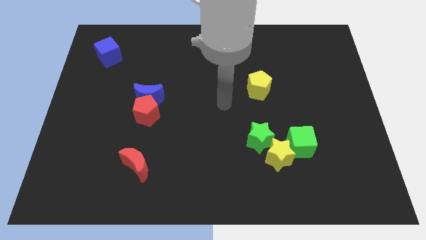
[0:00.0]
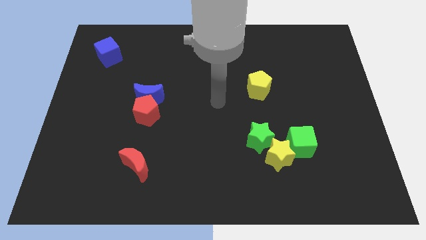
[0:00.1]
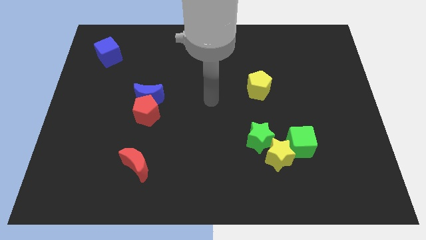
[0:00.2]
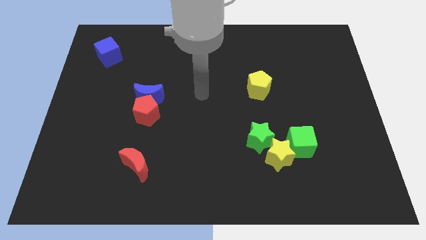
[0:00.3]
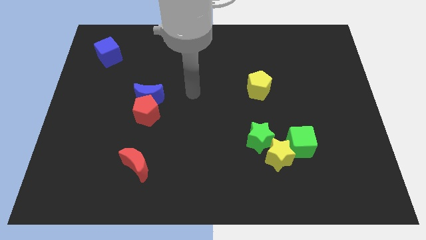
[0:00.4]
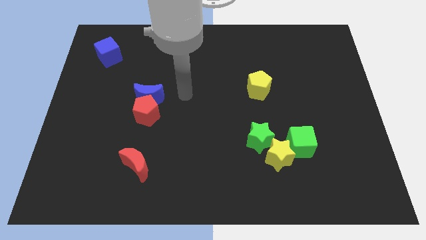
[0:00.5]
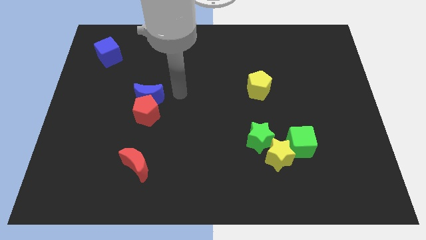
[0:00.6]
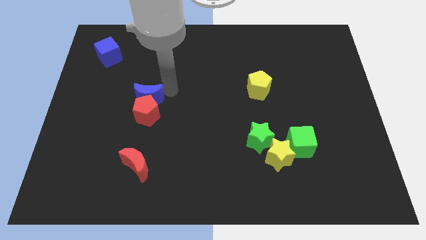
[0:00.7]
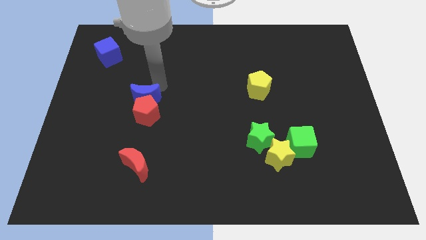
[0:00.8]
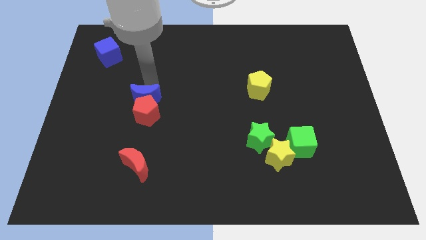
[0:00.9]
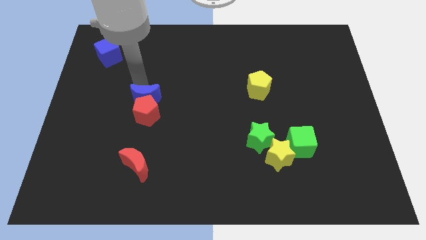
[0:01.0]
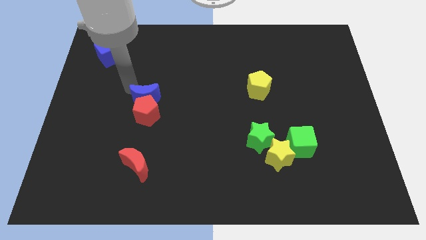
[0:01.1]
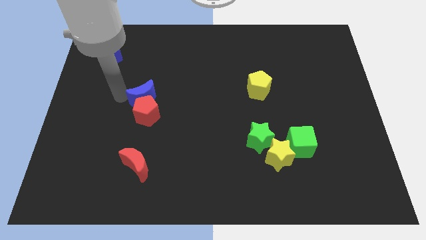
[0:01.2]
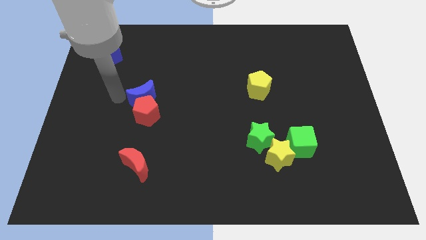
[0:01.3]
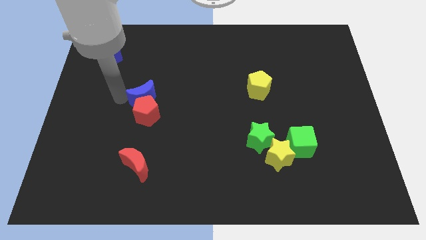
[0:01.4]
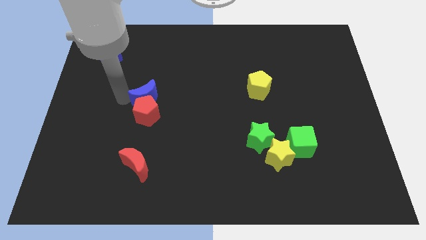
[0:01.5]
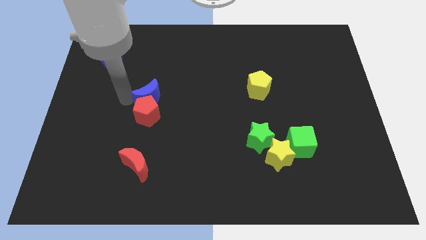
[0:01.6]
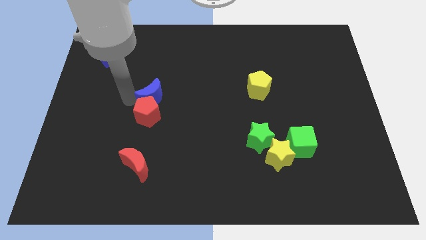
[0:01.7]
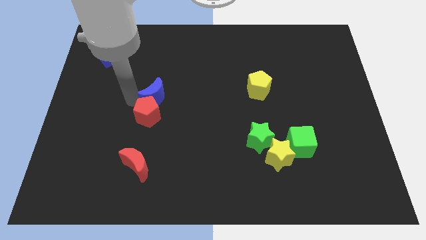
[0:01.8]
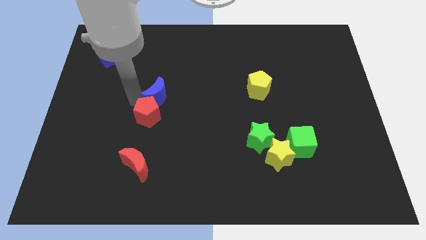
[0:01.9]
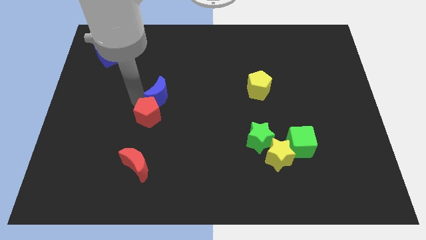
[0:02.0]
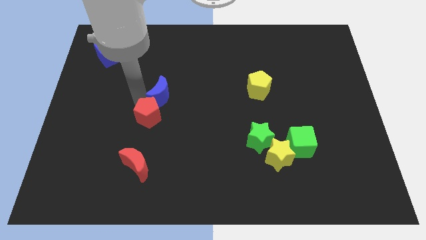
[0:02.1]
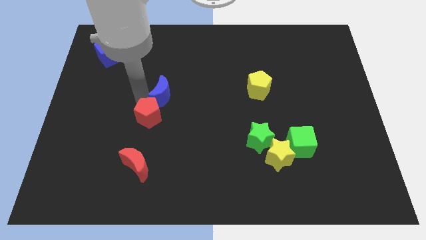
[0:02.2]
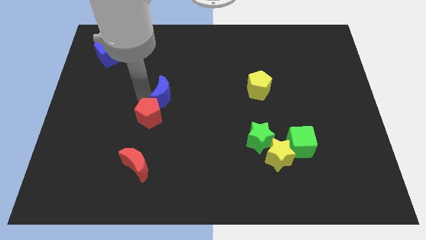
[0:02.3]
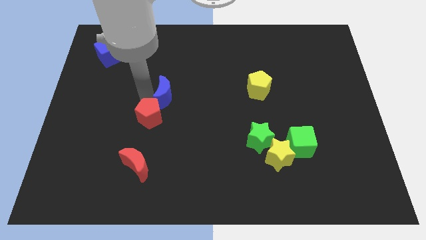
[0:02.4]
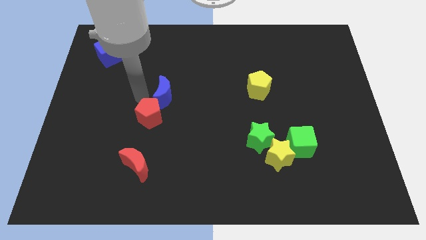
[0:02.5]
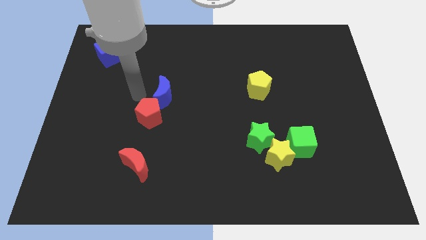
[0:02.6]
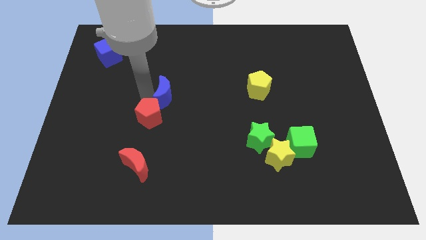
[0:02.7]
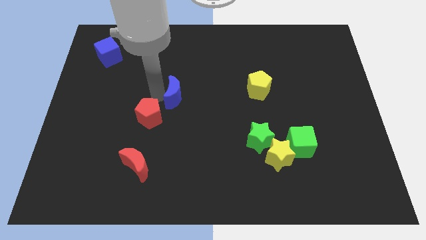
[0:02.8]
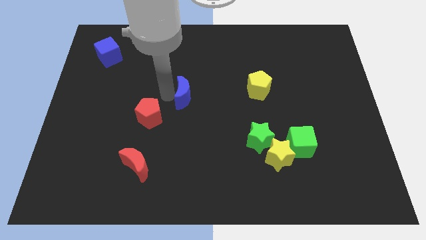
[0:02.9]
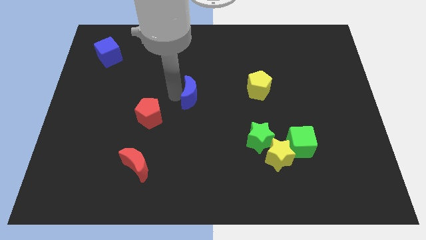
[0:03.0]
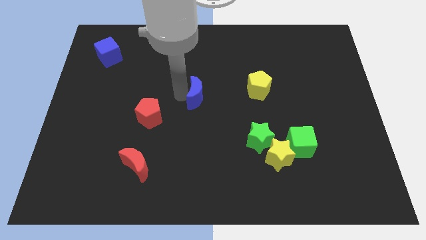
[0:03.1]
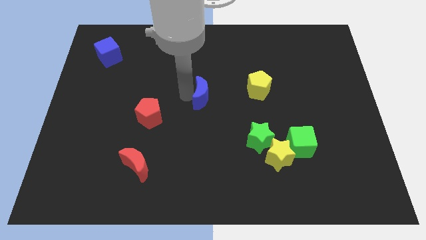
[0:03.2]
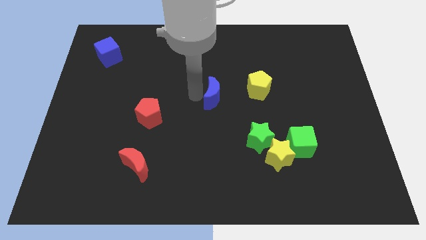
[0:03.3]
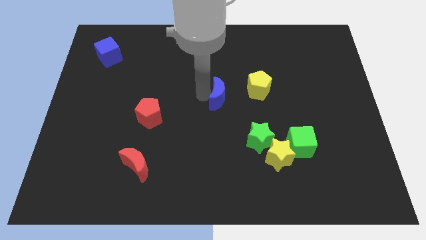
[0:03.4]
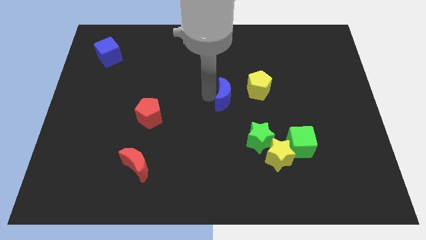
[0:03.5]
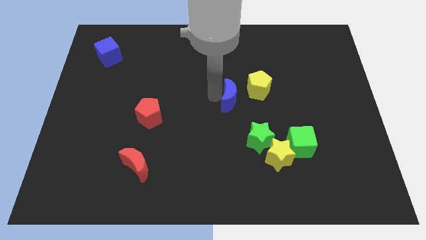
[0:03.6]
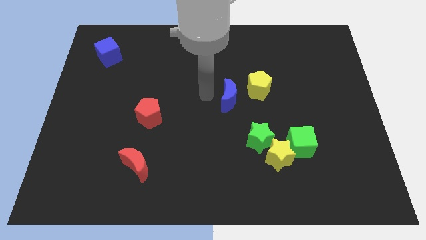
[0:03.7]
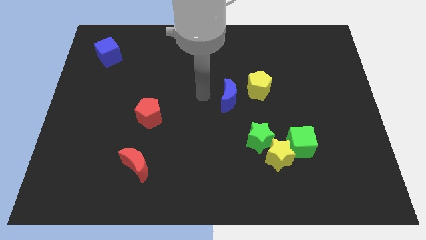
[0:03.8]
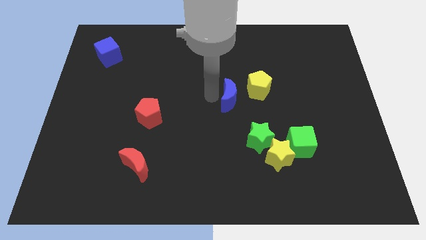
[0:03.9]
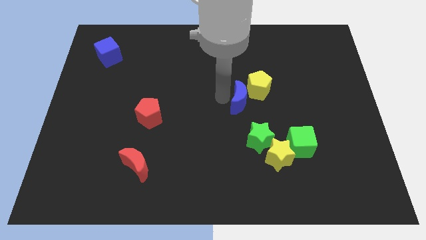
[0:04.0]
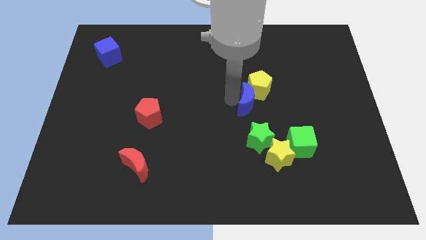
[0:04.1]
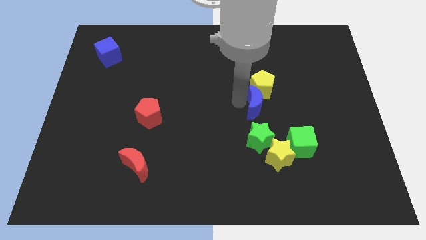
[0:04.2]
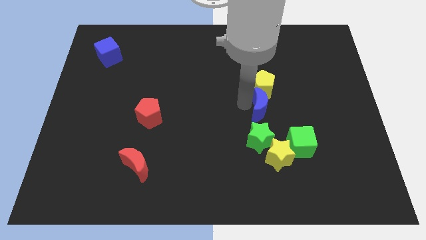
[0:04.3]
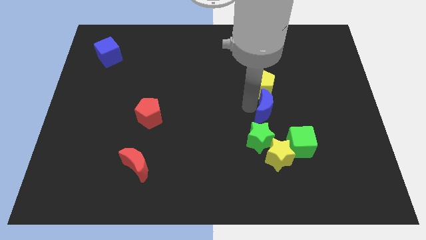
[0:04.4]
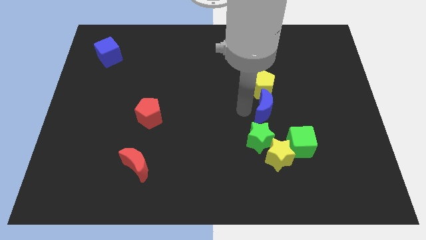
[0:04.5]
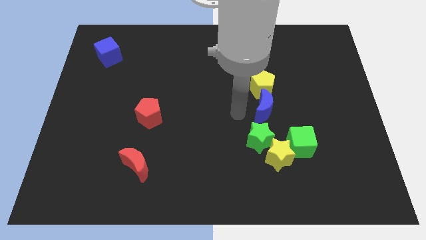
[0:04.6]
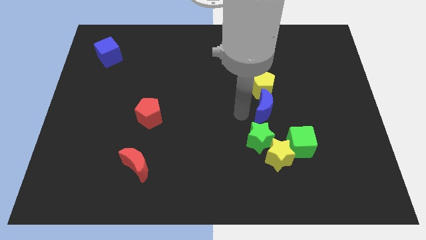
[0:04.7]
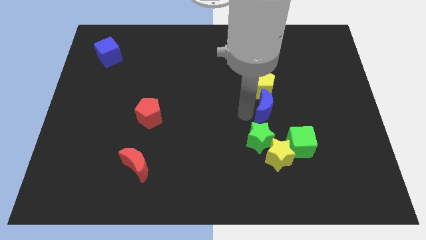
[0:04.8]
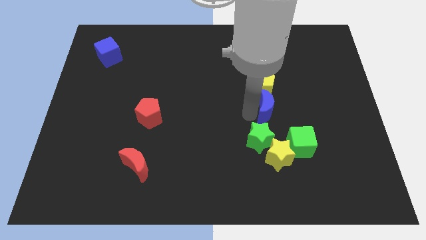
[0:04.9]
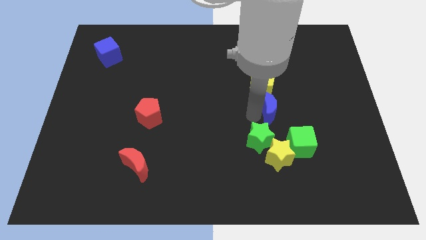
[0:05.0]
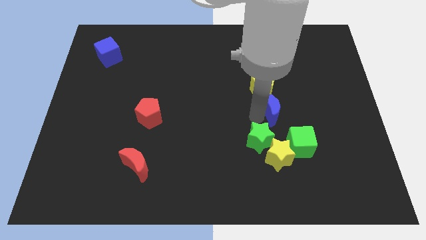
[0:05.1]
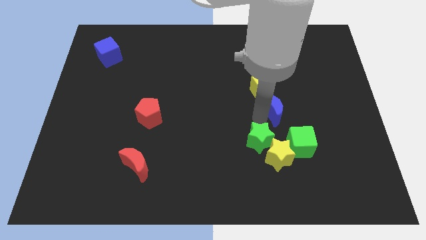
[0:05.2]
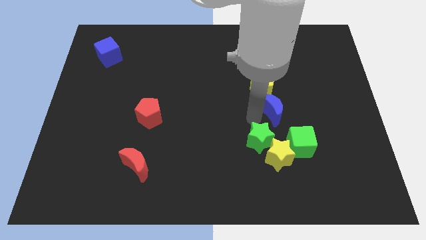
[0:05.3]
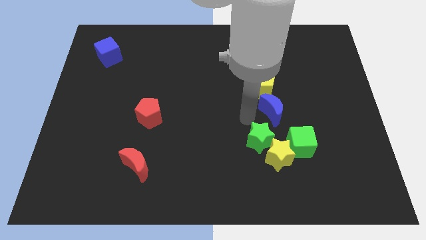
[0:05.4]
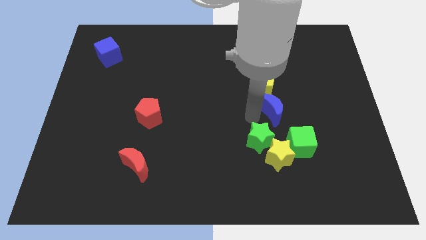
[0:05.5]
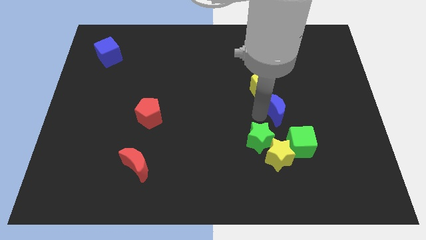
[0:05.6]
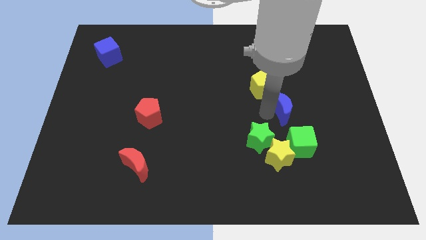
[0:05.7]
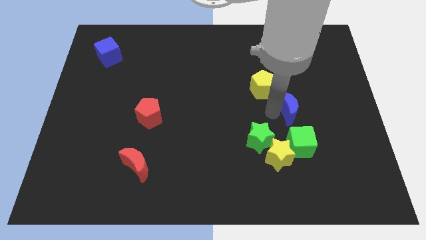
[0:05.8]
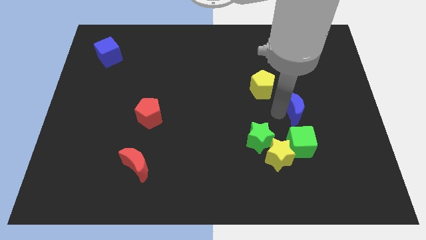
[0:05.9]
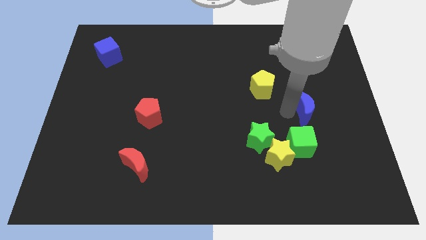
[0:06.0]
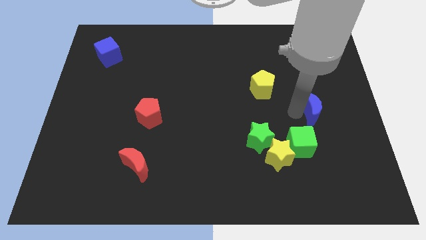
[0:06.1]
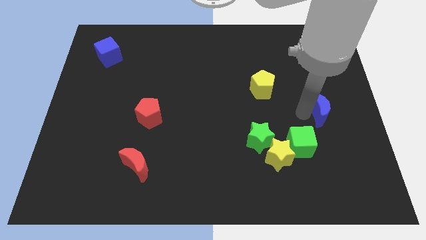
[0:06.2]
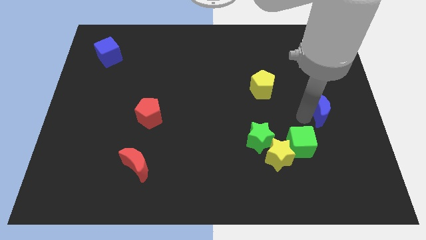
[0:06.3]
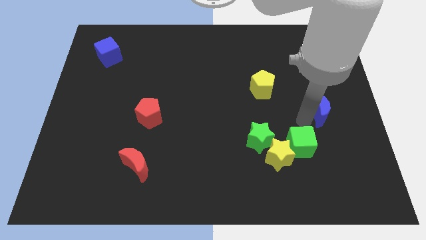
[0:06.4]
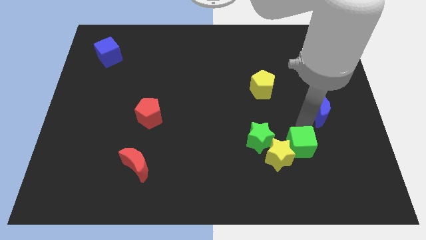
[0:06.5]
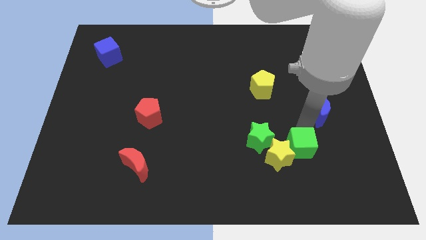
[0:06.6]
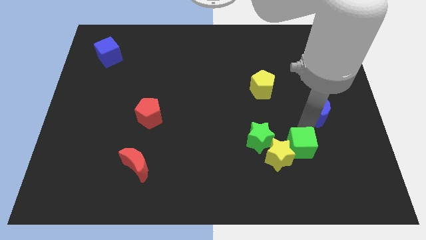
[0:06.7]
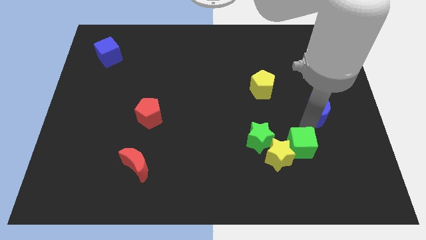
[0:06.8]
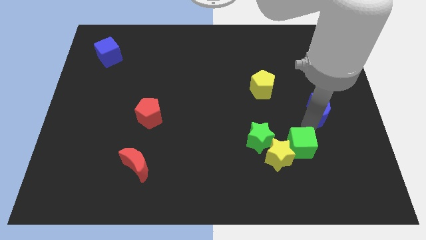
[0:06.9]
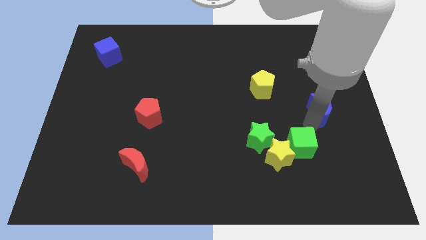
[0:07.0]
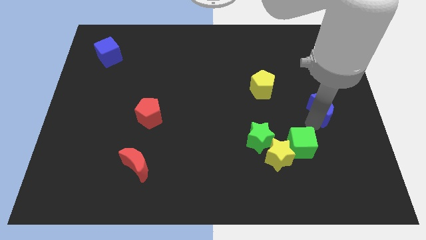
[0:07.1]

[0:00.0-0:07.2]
put the blue moon to the right side of the board
